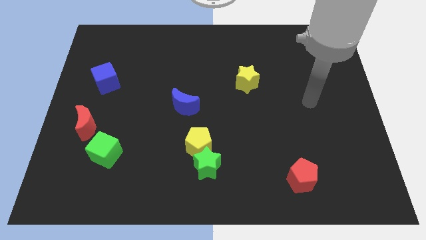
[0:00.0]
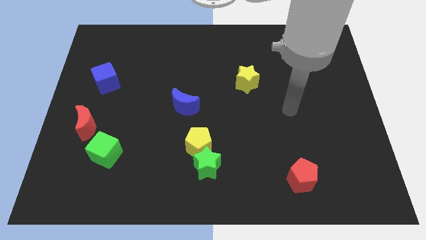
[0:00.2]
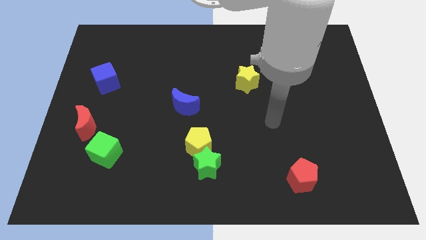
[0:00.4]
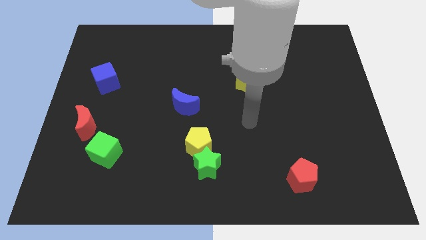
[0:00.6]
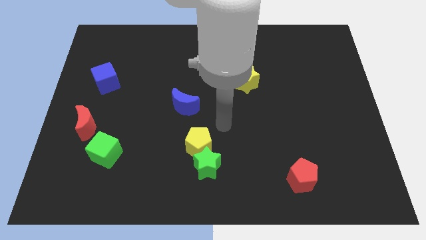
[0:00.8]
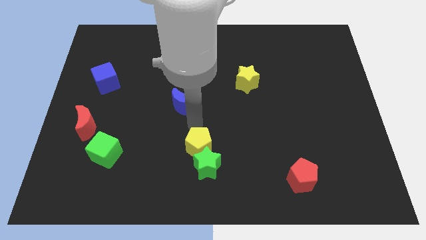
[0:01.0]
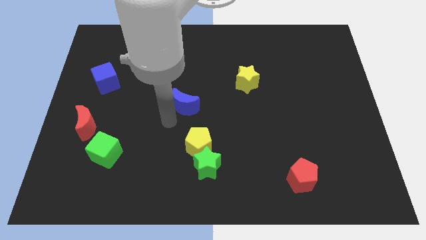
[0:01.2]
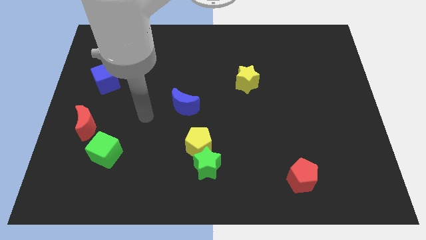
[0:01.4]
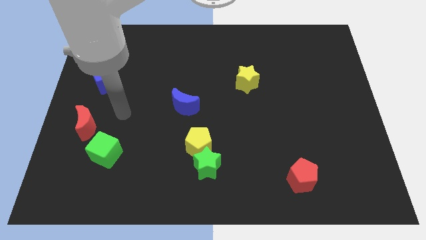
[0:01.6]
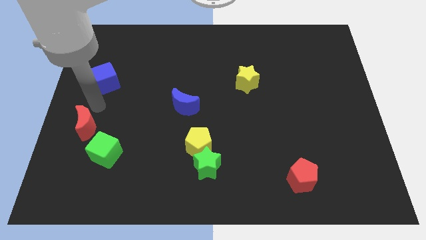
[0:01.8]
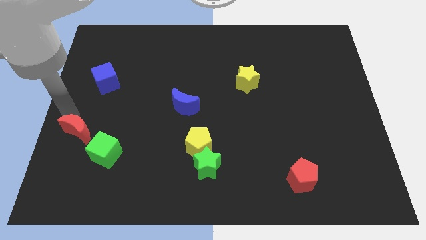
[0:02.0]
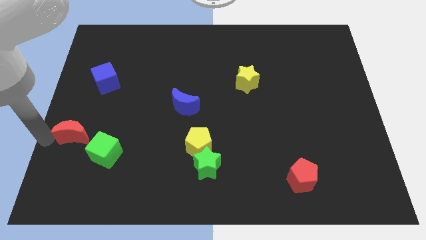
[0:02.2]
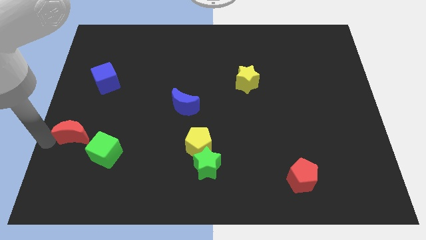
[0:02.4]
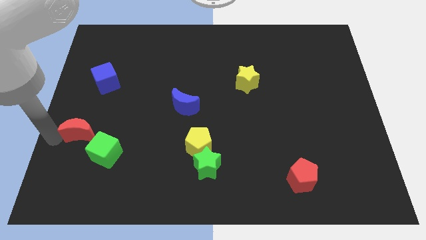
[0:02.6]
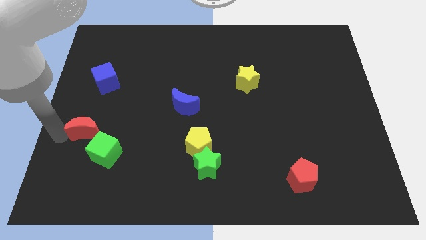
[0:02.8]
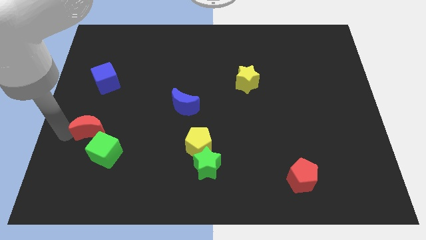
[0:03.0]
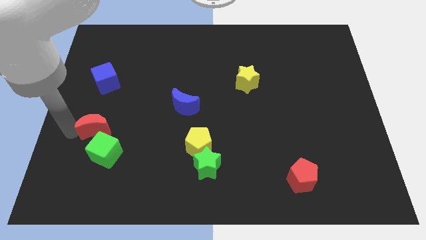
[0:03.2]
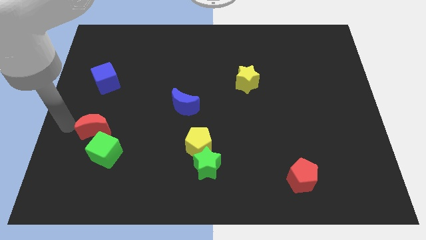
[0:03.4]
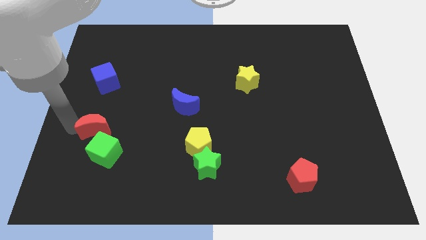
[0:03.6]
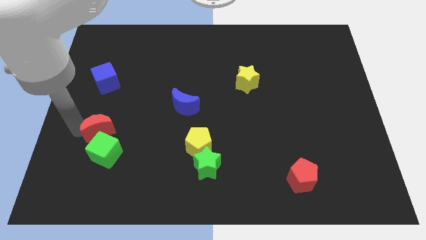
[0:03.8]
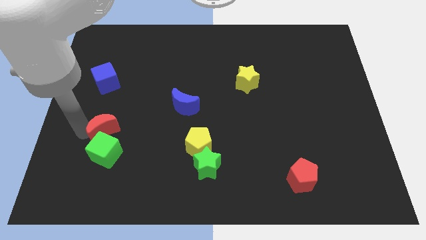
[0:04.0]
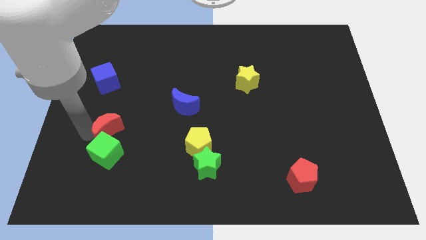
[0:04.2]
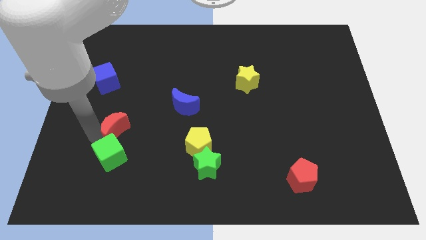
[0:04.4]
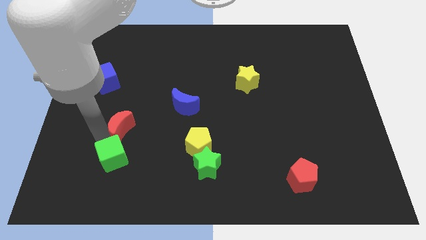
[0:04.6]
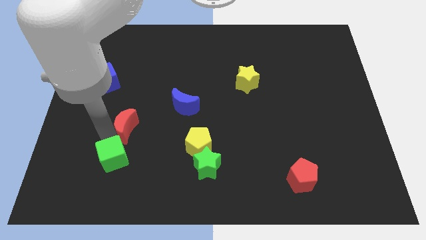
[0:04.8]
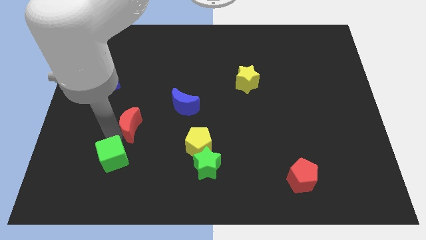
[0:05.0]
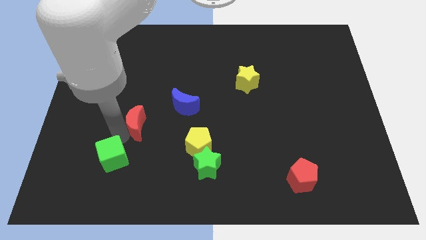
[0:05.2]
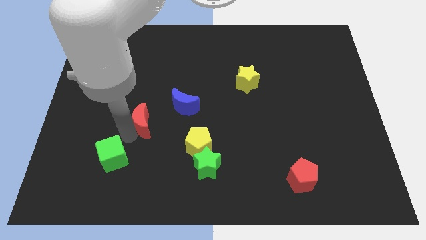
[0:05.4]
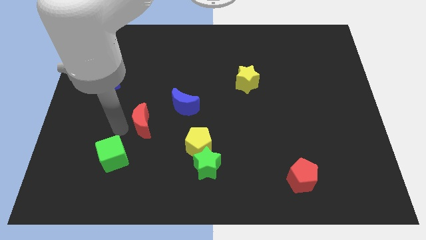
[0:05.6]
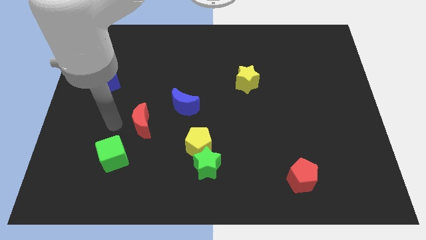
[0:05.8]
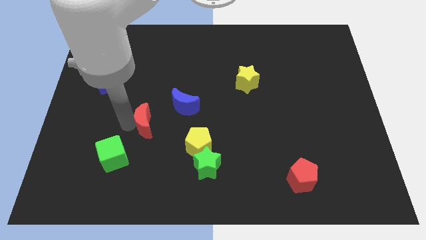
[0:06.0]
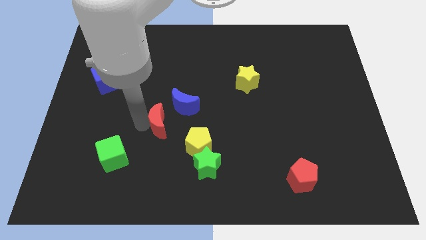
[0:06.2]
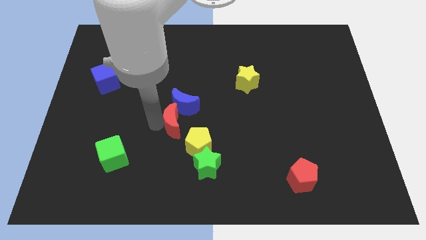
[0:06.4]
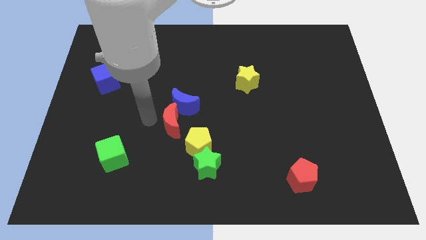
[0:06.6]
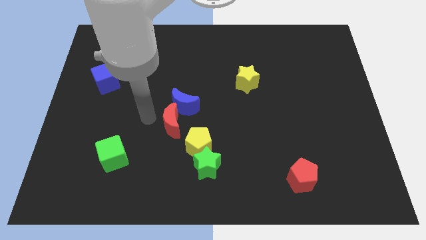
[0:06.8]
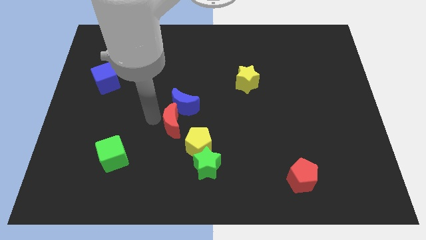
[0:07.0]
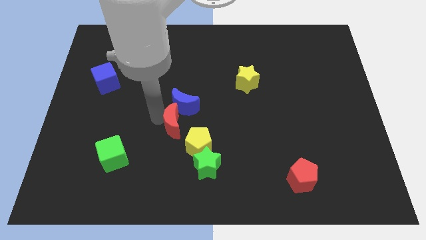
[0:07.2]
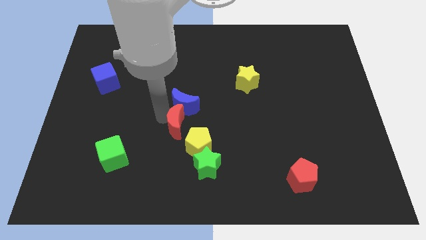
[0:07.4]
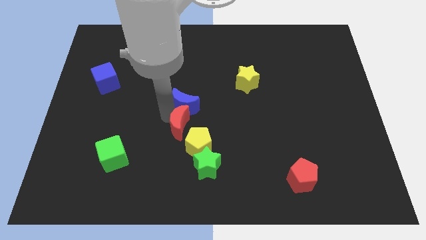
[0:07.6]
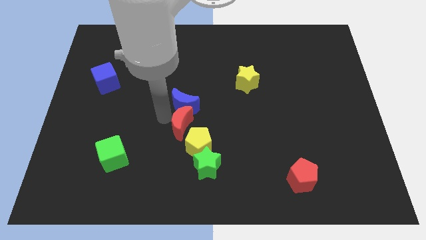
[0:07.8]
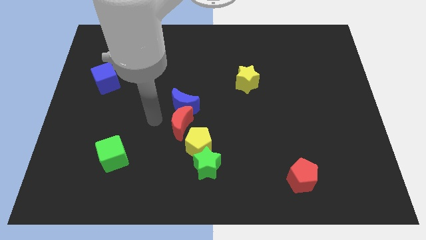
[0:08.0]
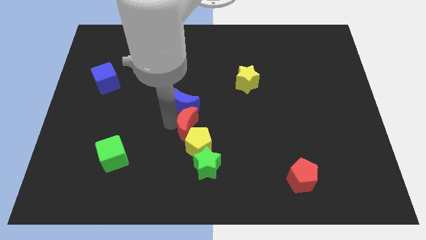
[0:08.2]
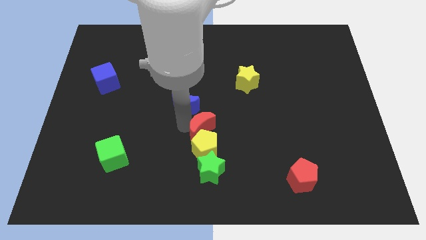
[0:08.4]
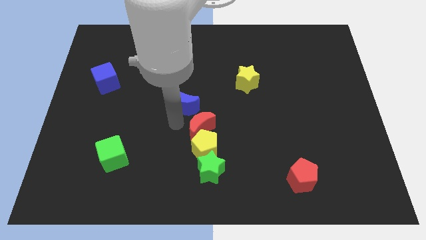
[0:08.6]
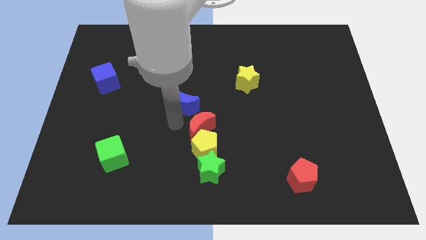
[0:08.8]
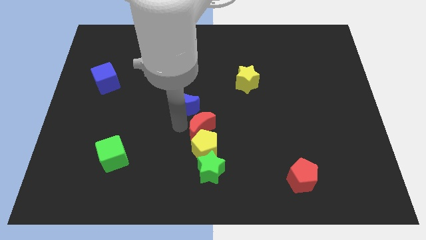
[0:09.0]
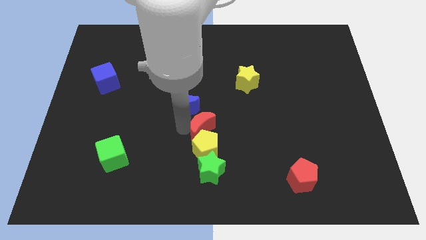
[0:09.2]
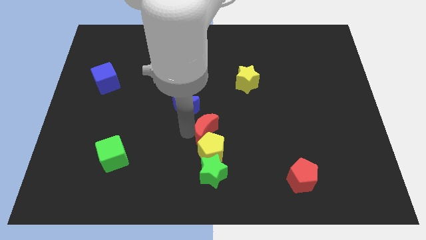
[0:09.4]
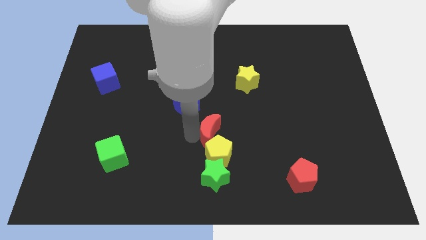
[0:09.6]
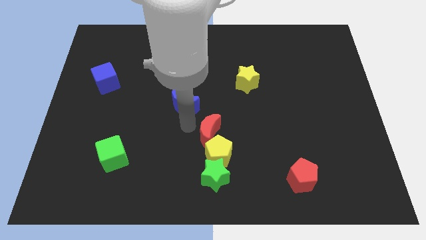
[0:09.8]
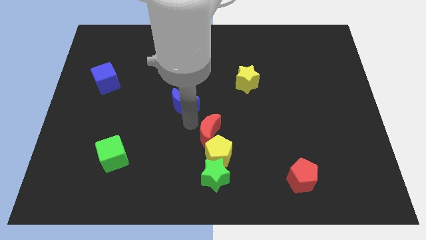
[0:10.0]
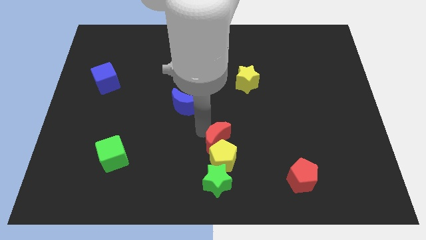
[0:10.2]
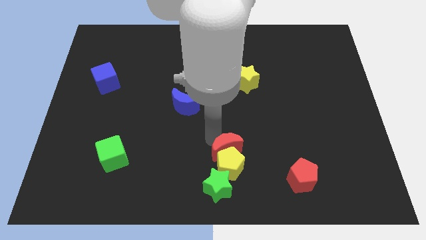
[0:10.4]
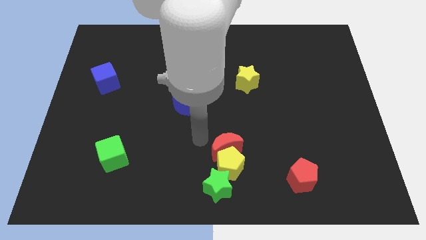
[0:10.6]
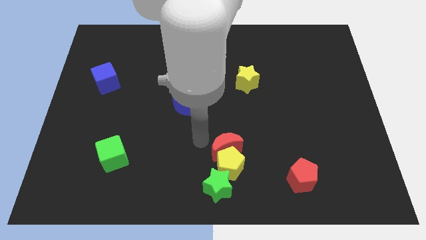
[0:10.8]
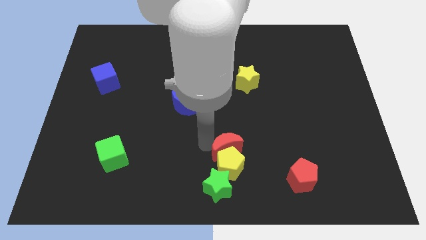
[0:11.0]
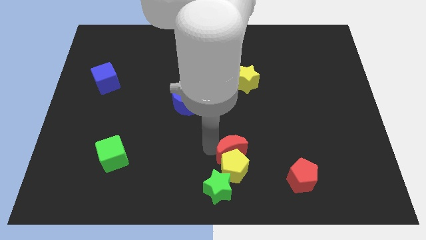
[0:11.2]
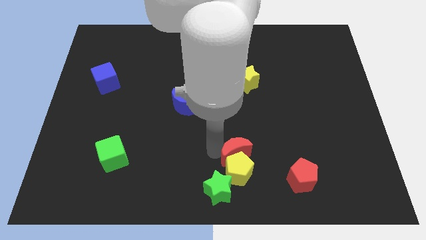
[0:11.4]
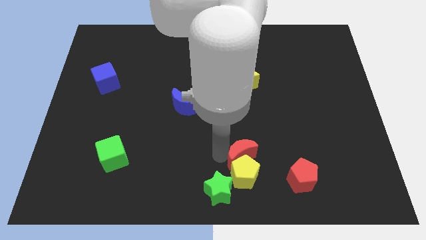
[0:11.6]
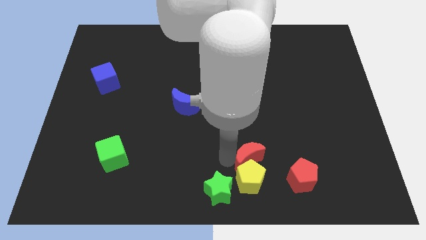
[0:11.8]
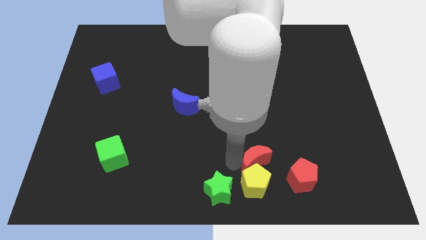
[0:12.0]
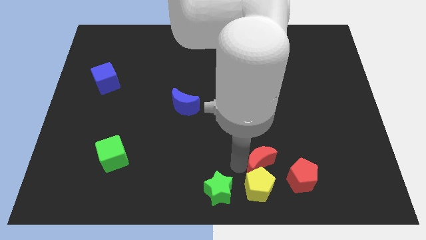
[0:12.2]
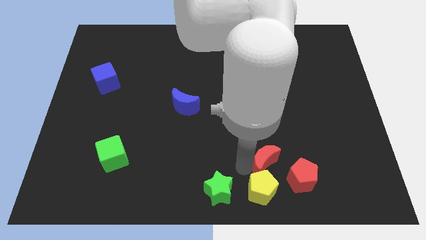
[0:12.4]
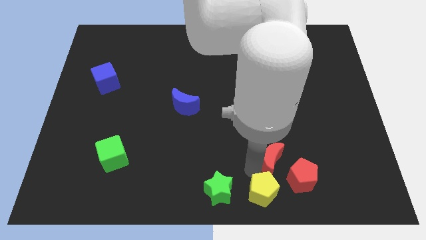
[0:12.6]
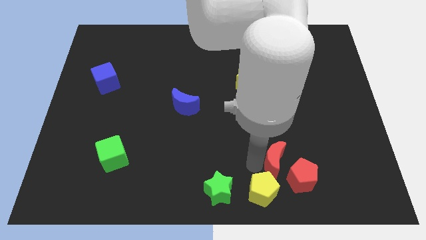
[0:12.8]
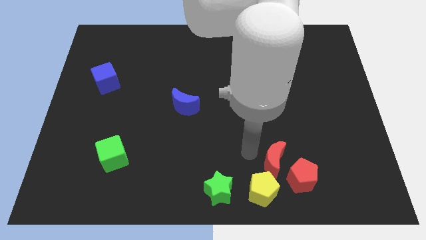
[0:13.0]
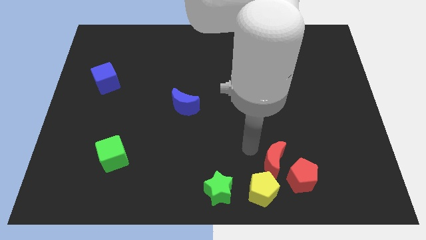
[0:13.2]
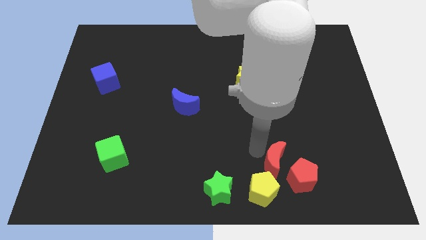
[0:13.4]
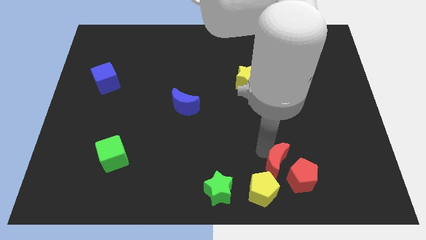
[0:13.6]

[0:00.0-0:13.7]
slide the red moon next to the red pentagon
